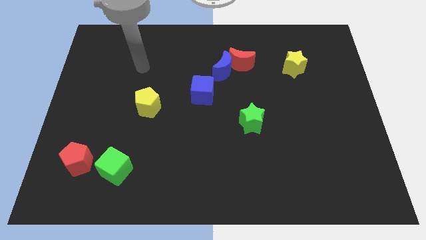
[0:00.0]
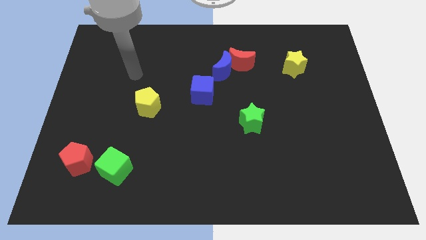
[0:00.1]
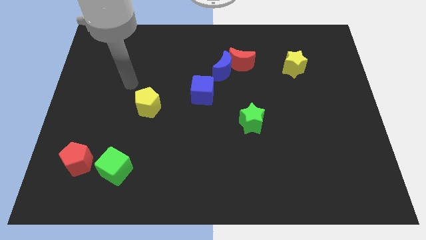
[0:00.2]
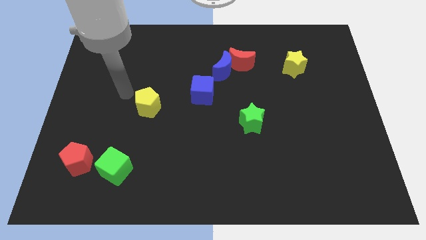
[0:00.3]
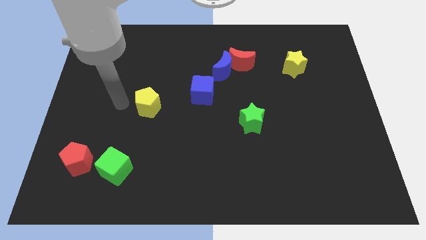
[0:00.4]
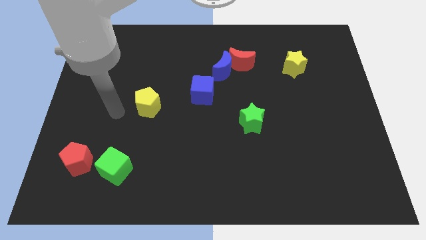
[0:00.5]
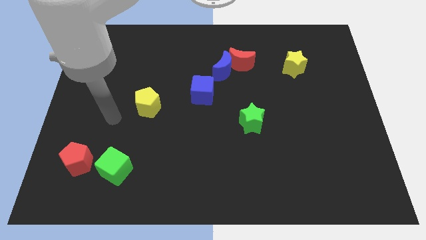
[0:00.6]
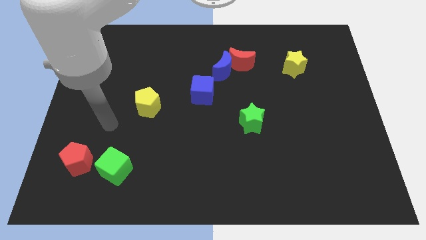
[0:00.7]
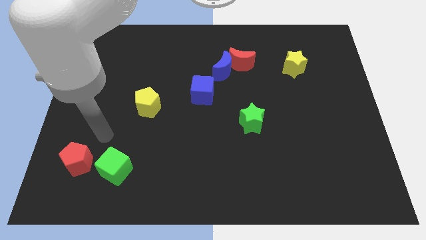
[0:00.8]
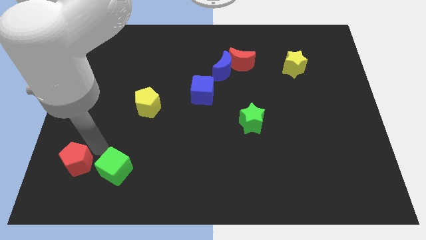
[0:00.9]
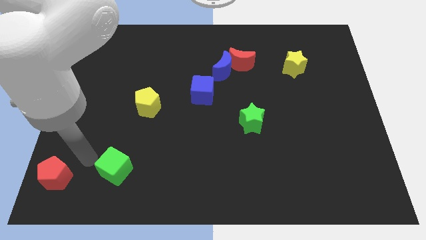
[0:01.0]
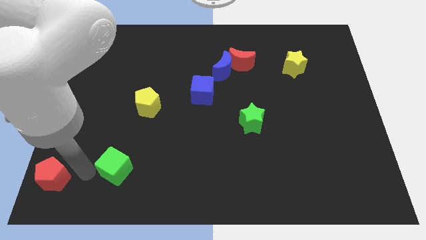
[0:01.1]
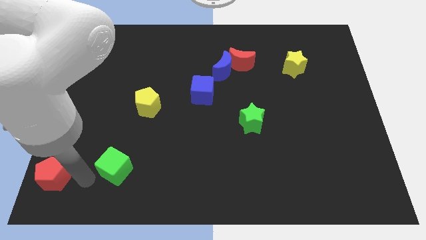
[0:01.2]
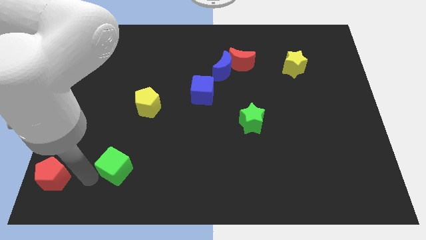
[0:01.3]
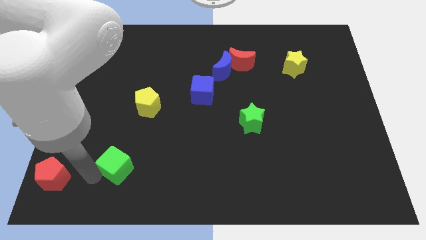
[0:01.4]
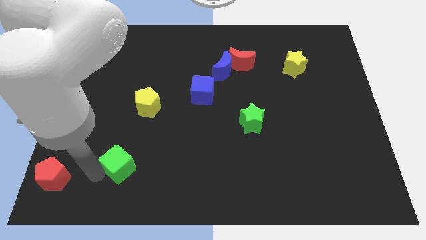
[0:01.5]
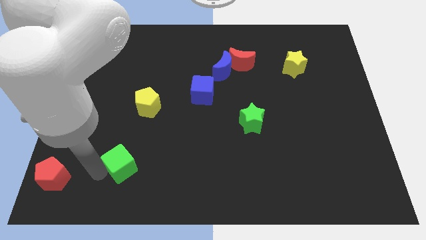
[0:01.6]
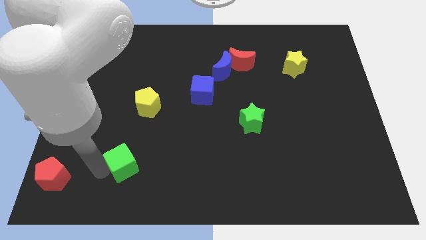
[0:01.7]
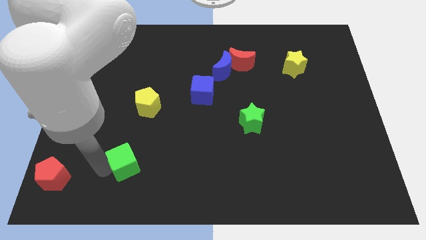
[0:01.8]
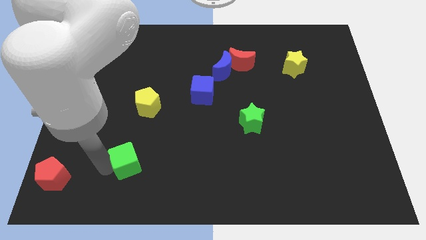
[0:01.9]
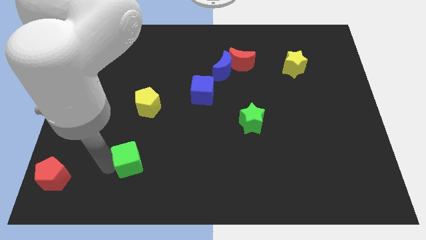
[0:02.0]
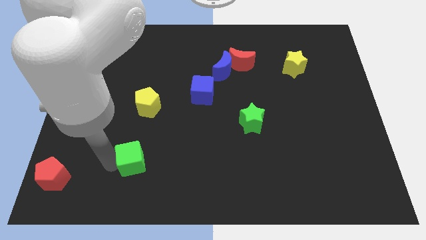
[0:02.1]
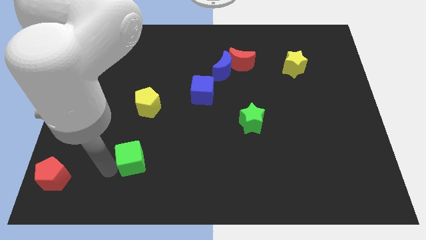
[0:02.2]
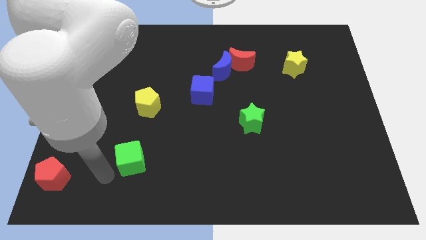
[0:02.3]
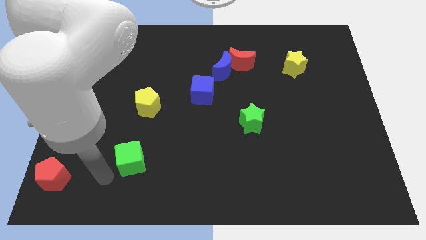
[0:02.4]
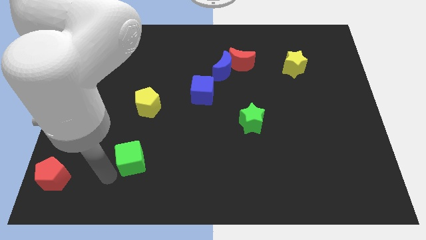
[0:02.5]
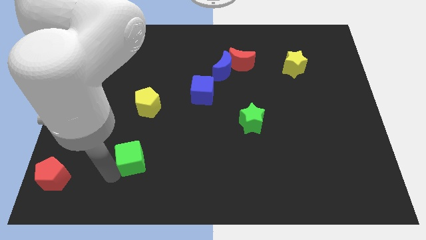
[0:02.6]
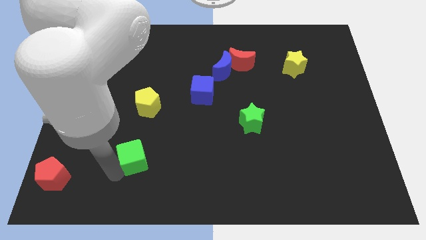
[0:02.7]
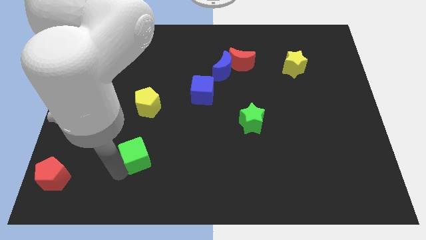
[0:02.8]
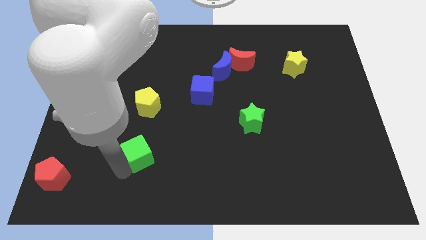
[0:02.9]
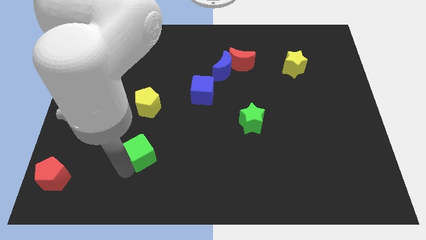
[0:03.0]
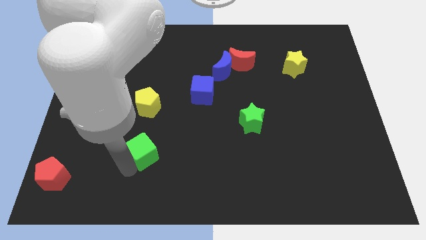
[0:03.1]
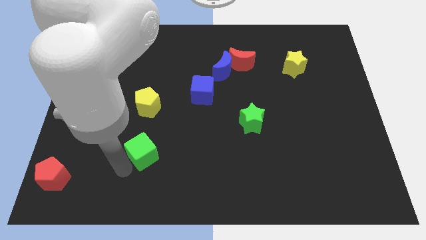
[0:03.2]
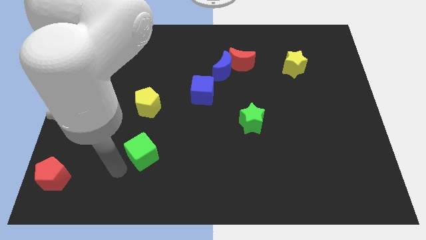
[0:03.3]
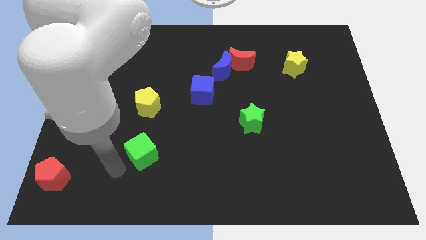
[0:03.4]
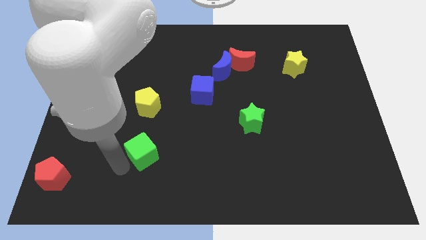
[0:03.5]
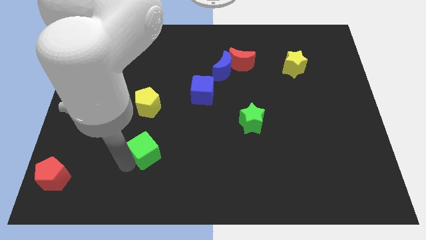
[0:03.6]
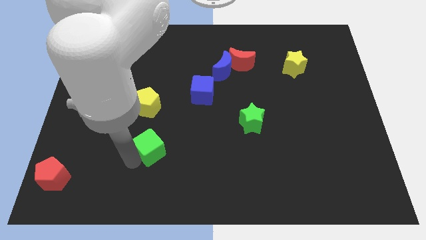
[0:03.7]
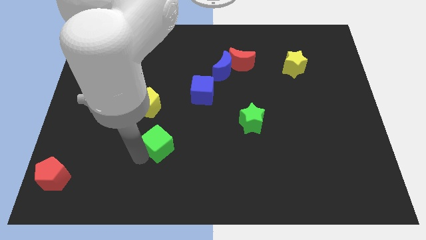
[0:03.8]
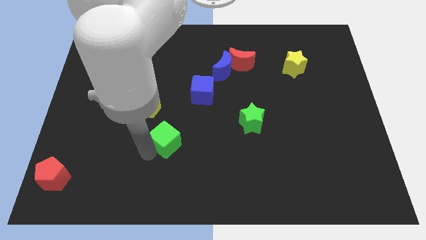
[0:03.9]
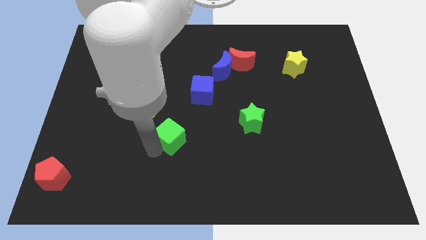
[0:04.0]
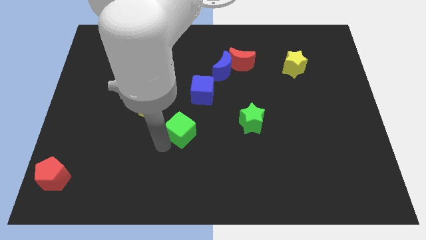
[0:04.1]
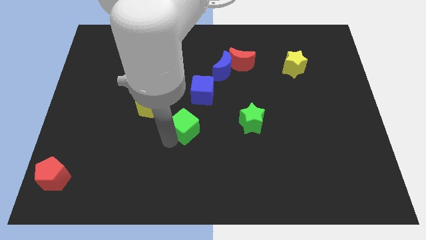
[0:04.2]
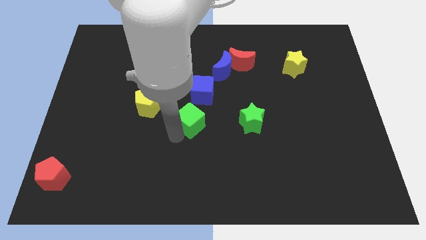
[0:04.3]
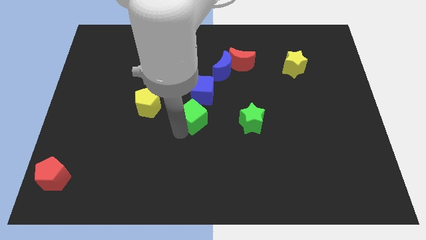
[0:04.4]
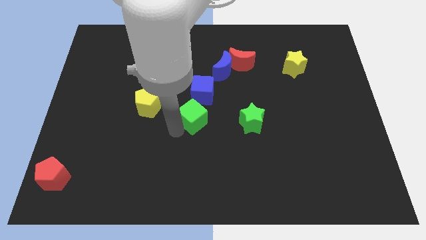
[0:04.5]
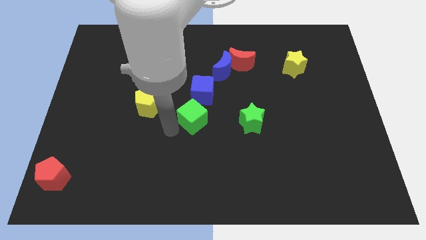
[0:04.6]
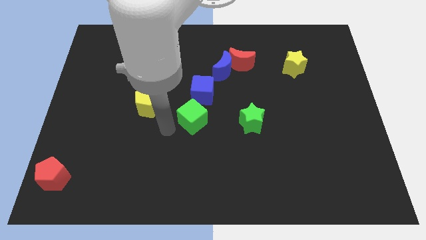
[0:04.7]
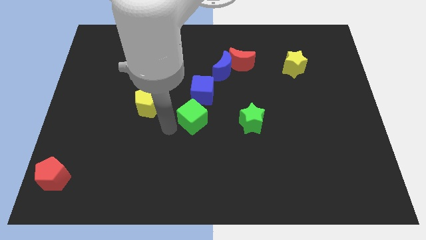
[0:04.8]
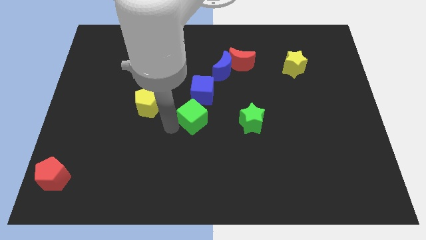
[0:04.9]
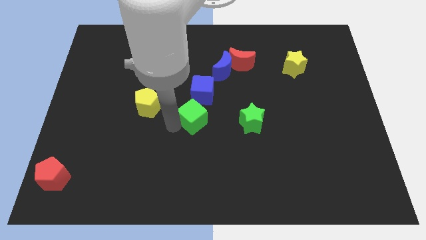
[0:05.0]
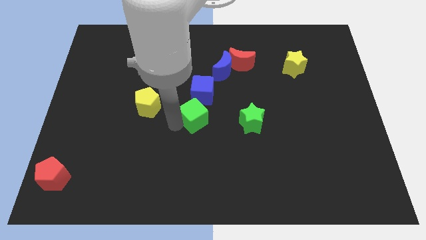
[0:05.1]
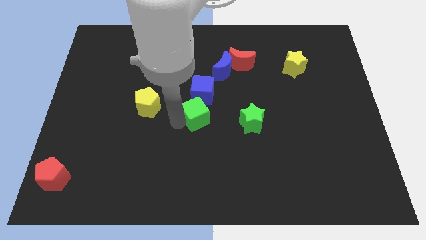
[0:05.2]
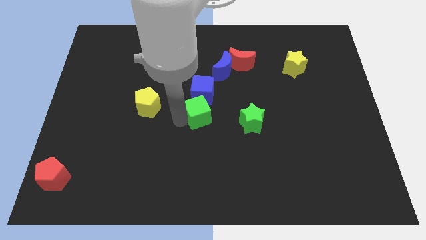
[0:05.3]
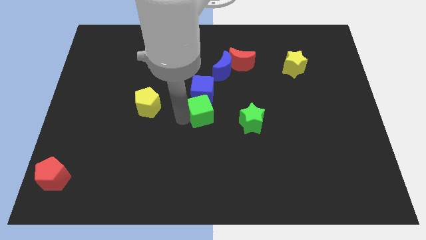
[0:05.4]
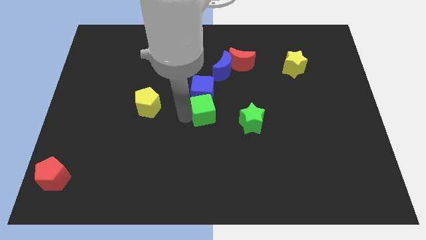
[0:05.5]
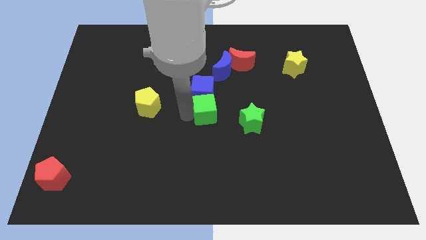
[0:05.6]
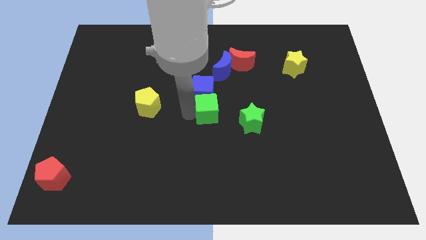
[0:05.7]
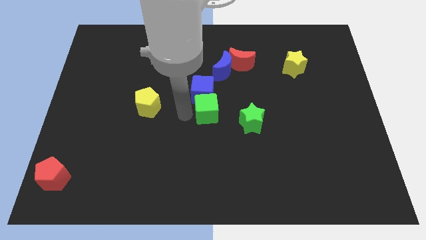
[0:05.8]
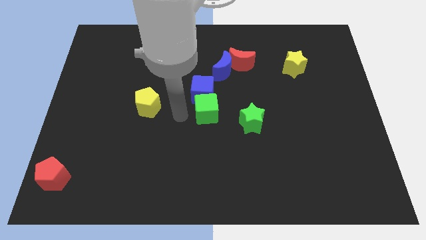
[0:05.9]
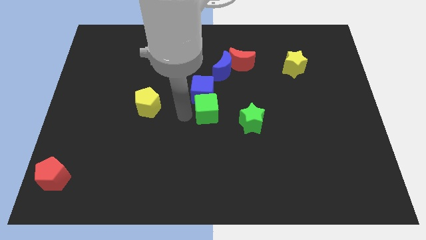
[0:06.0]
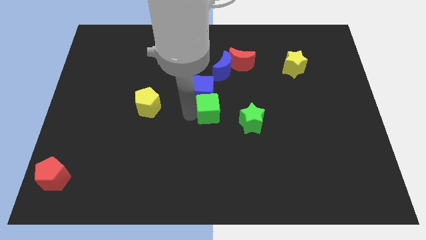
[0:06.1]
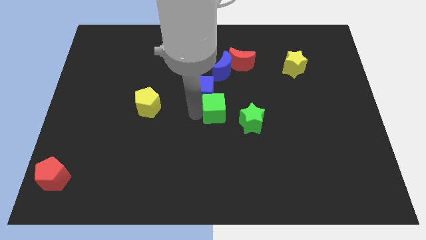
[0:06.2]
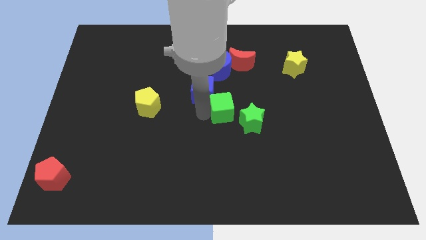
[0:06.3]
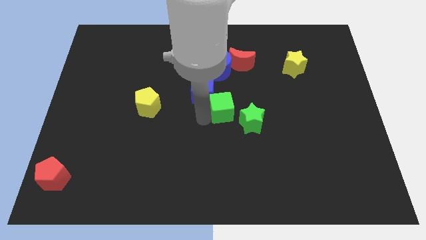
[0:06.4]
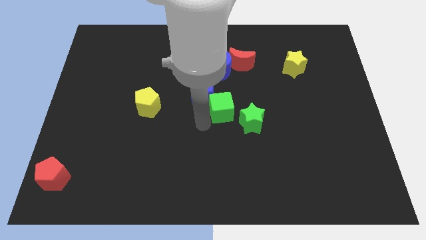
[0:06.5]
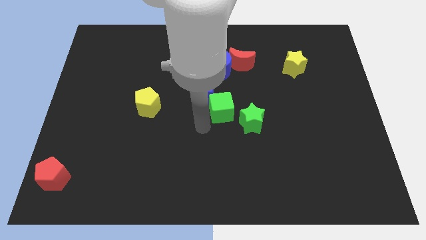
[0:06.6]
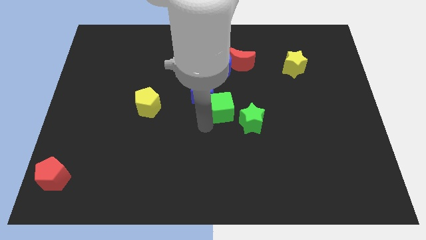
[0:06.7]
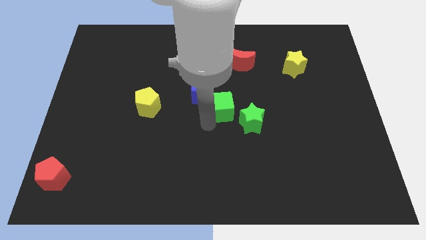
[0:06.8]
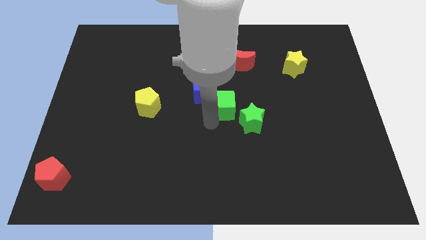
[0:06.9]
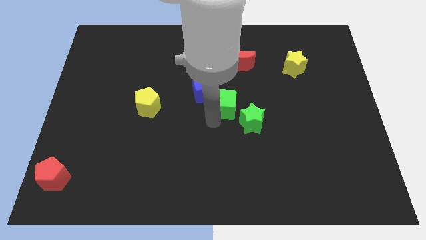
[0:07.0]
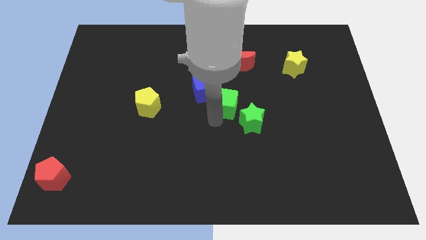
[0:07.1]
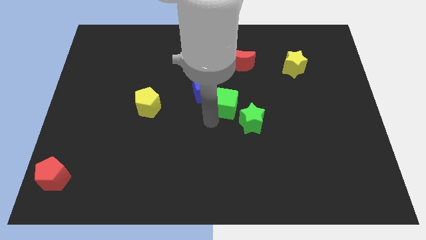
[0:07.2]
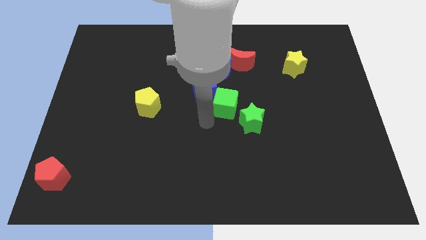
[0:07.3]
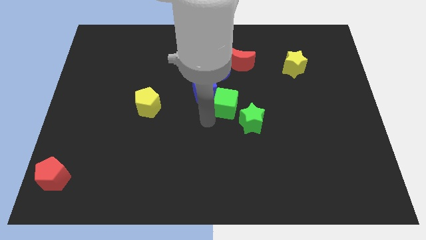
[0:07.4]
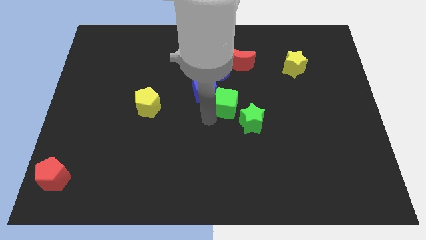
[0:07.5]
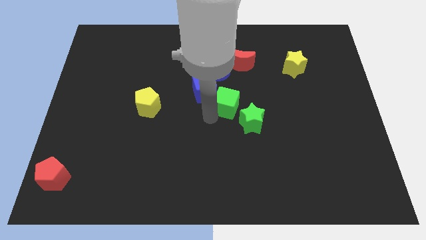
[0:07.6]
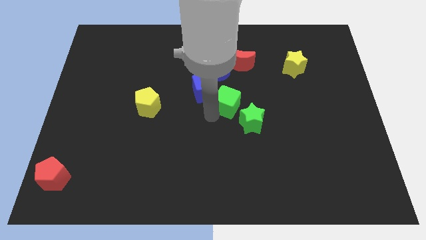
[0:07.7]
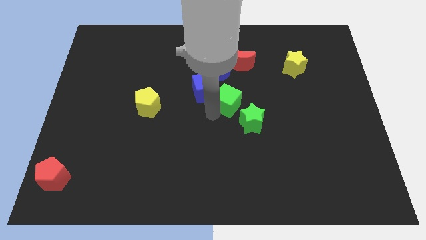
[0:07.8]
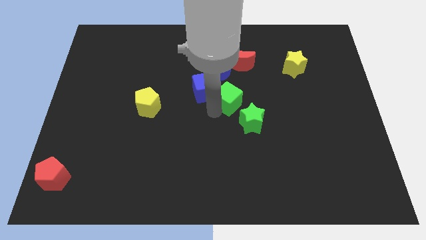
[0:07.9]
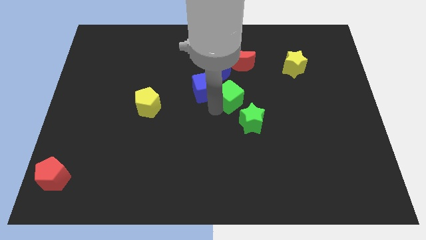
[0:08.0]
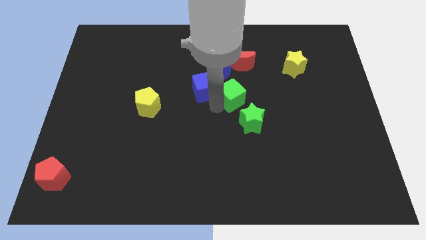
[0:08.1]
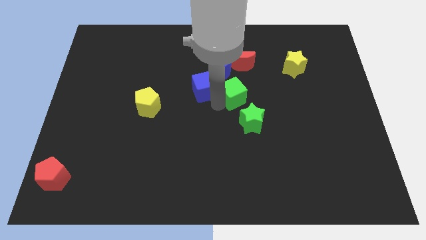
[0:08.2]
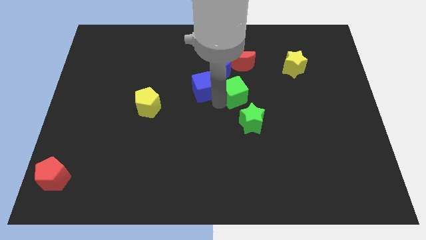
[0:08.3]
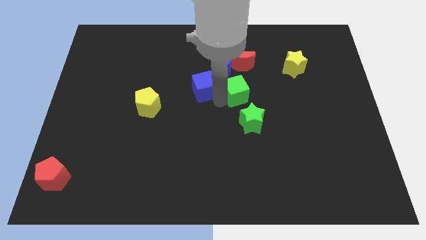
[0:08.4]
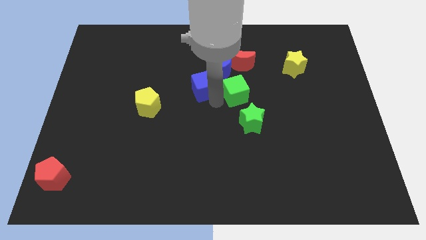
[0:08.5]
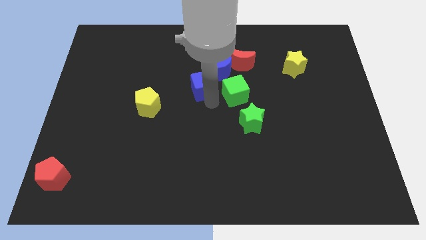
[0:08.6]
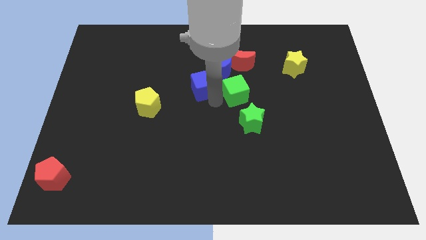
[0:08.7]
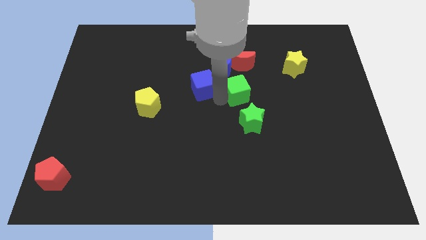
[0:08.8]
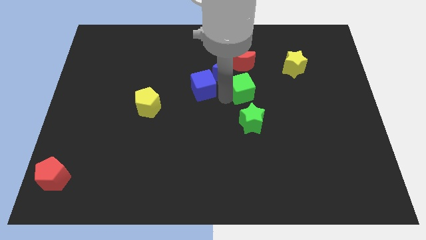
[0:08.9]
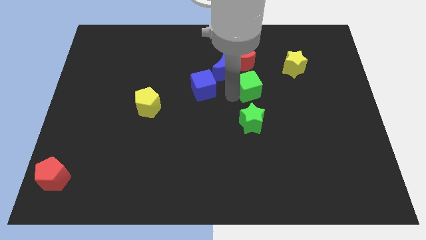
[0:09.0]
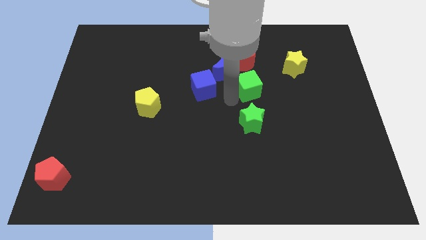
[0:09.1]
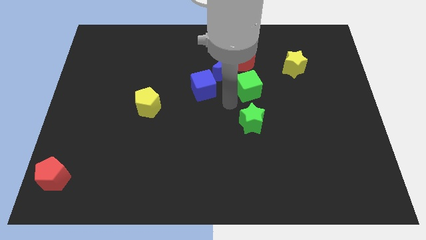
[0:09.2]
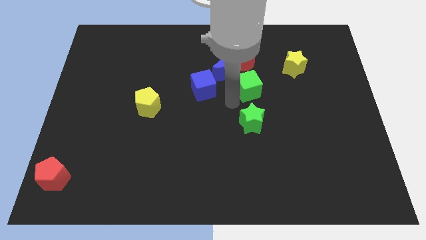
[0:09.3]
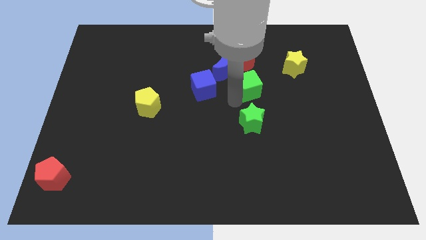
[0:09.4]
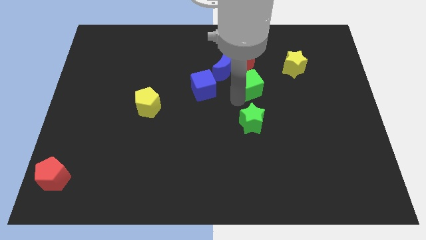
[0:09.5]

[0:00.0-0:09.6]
put the green cube to the bottom right side of the red moon
